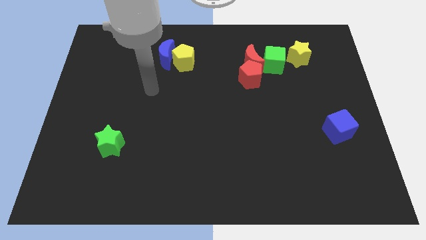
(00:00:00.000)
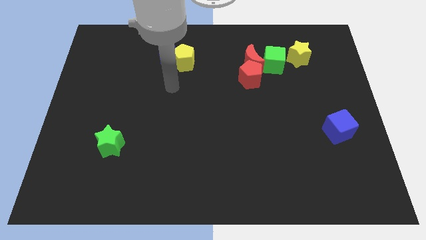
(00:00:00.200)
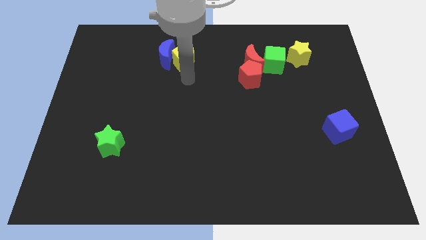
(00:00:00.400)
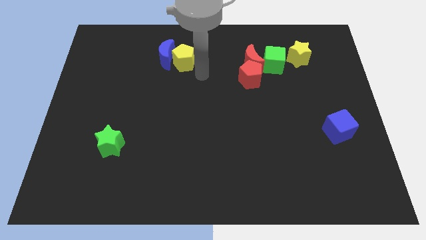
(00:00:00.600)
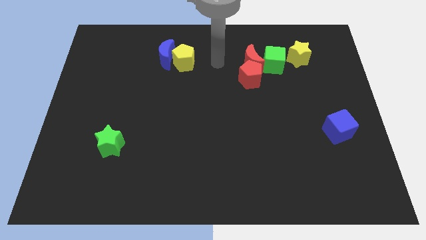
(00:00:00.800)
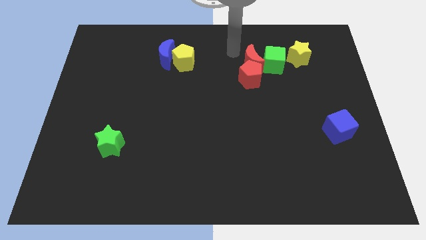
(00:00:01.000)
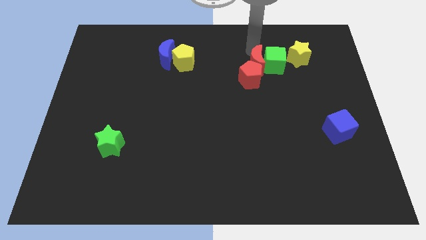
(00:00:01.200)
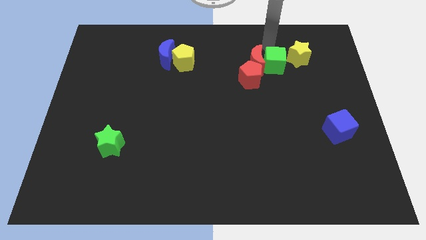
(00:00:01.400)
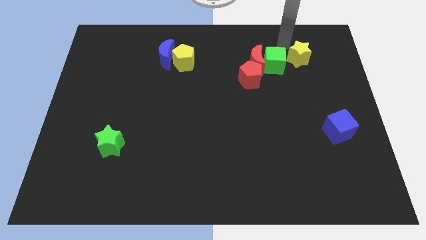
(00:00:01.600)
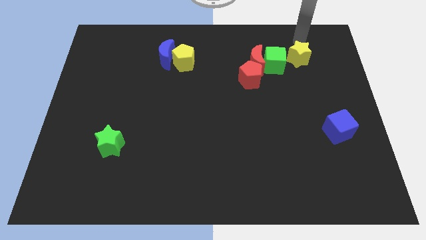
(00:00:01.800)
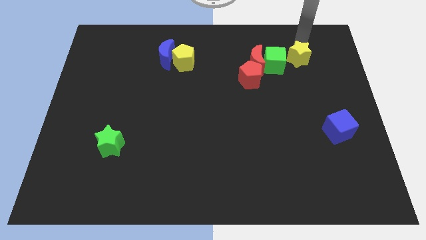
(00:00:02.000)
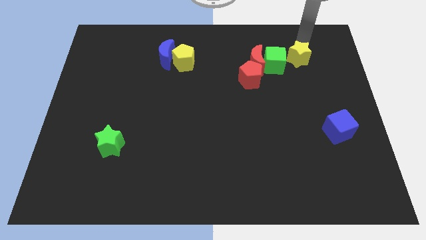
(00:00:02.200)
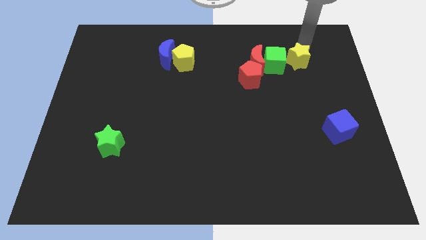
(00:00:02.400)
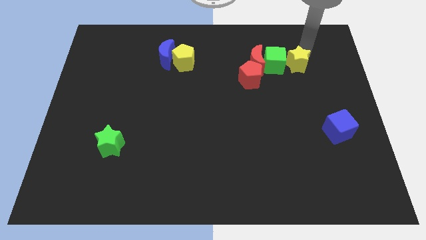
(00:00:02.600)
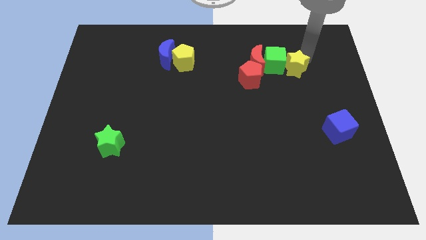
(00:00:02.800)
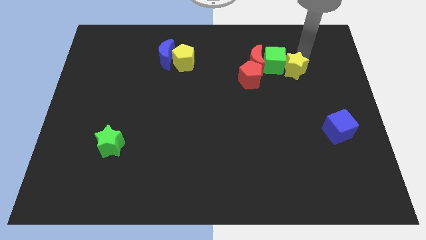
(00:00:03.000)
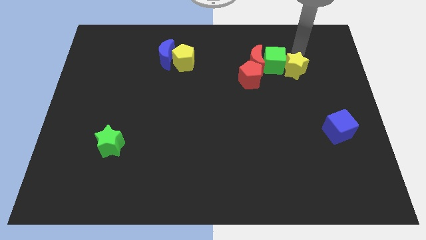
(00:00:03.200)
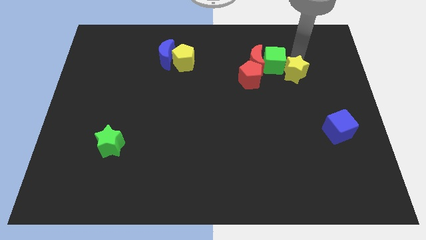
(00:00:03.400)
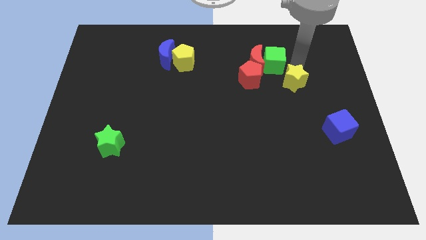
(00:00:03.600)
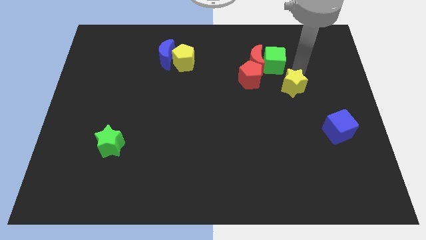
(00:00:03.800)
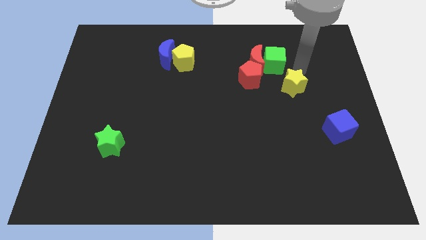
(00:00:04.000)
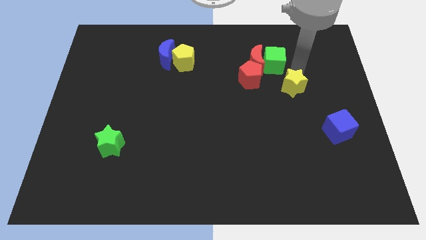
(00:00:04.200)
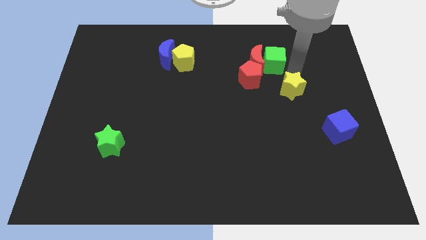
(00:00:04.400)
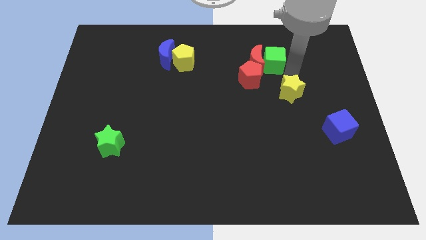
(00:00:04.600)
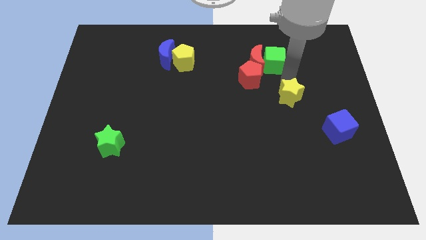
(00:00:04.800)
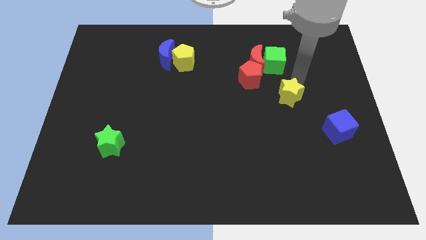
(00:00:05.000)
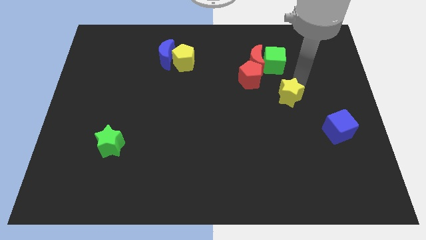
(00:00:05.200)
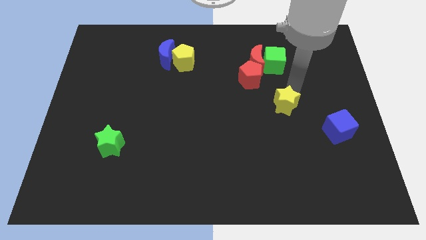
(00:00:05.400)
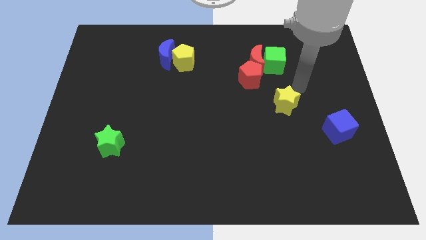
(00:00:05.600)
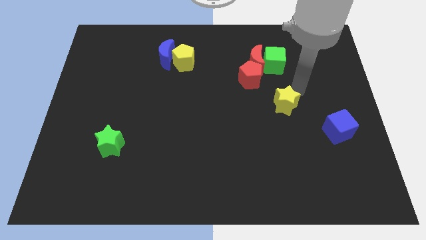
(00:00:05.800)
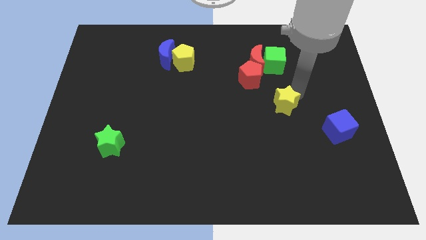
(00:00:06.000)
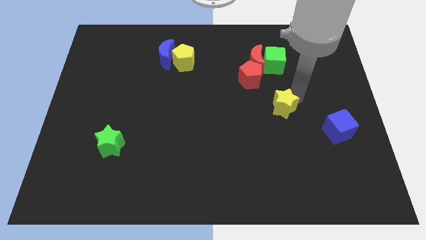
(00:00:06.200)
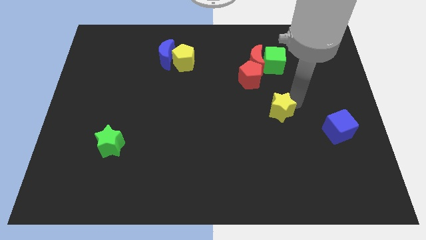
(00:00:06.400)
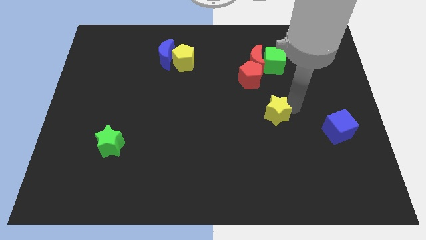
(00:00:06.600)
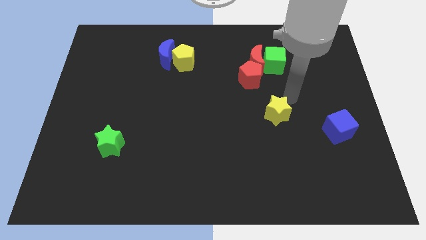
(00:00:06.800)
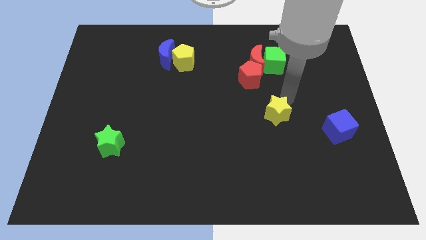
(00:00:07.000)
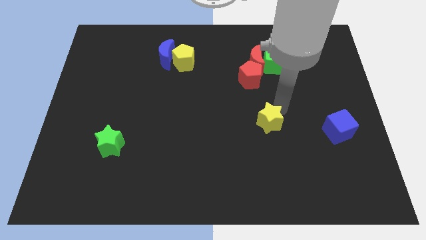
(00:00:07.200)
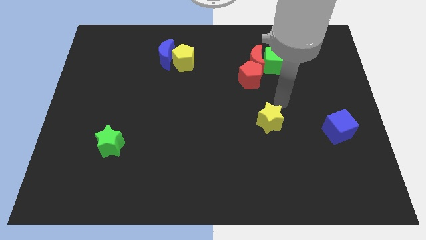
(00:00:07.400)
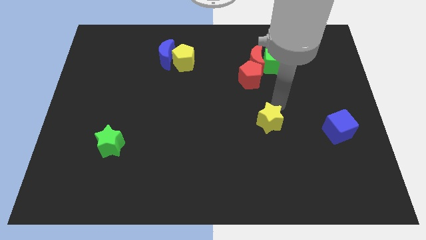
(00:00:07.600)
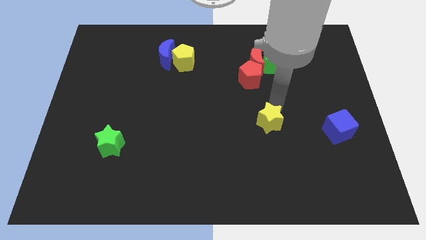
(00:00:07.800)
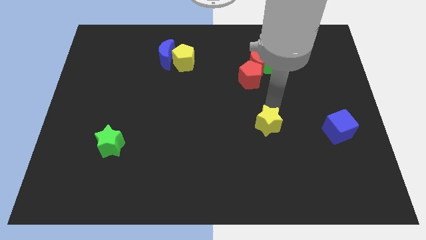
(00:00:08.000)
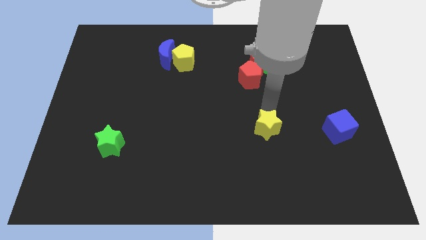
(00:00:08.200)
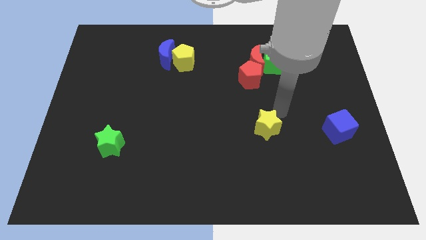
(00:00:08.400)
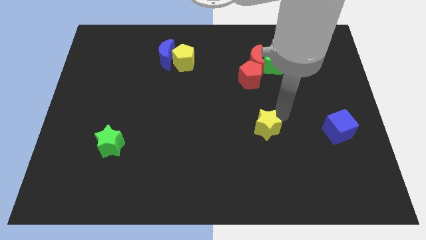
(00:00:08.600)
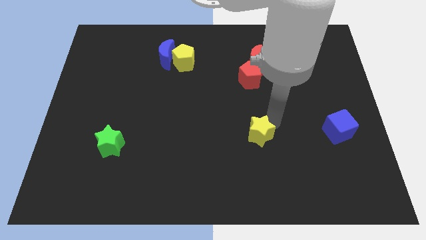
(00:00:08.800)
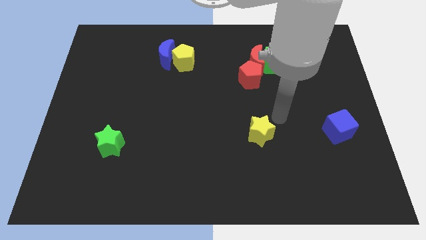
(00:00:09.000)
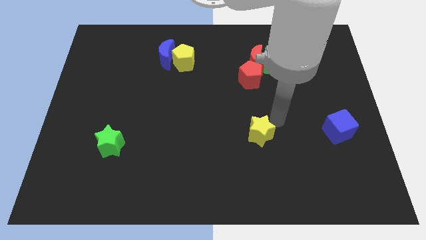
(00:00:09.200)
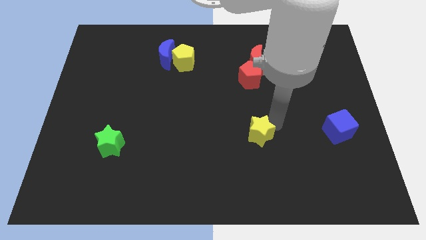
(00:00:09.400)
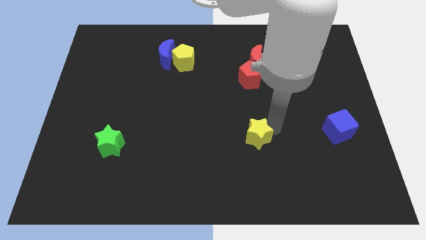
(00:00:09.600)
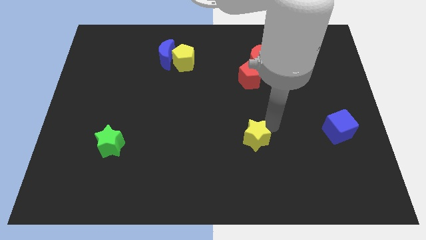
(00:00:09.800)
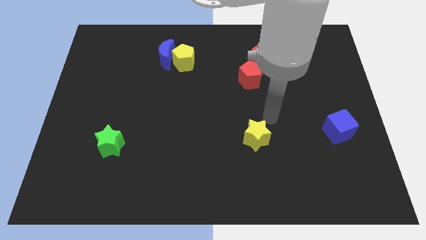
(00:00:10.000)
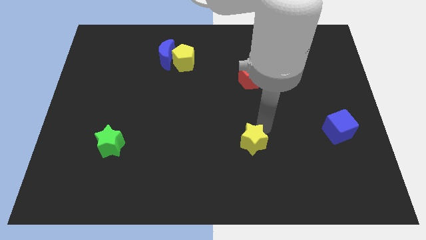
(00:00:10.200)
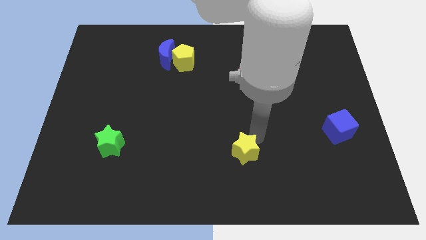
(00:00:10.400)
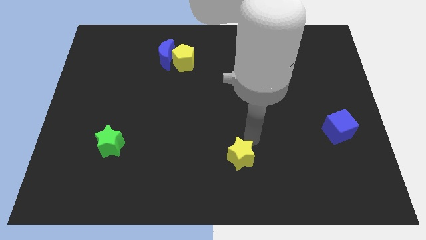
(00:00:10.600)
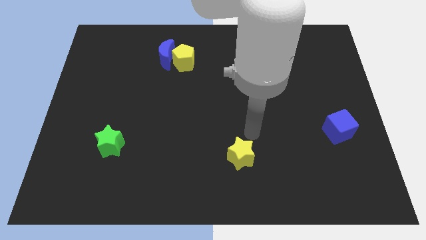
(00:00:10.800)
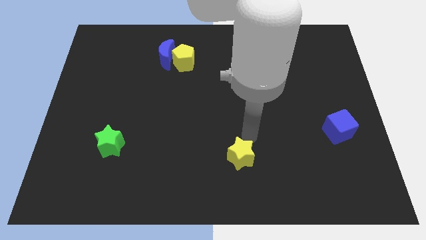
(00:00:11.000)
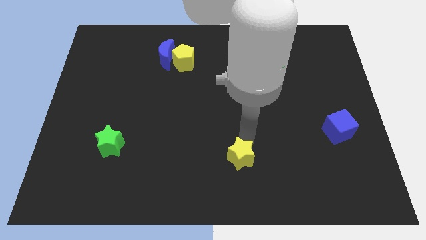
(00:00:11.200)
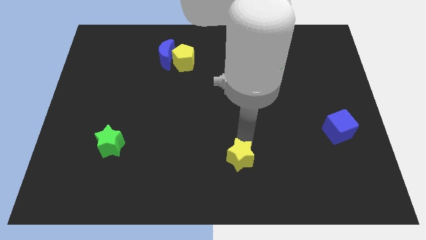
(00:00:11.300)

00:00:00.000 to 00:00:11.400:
move the yellow star to the bottom side

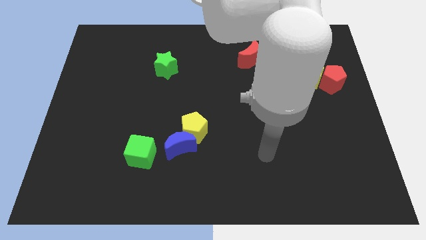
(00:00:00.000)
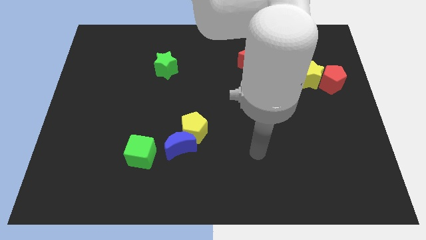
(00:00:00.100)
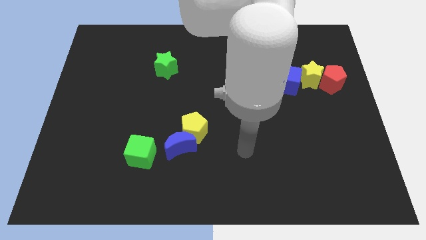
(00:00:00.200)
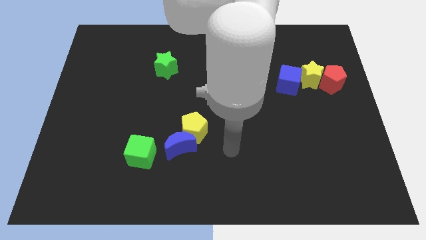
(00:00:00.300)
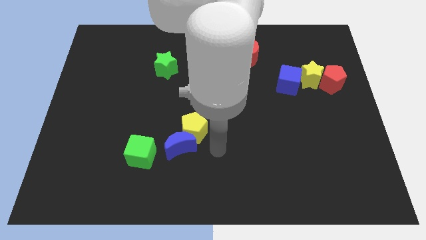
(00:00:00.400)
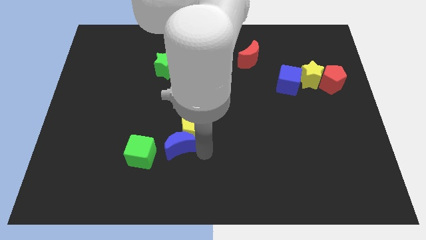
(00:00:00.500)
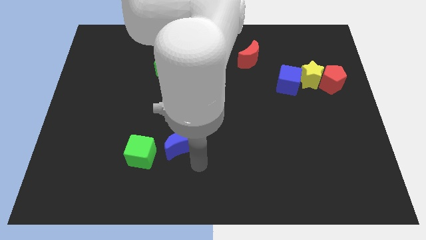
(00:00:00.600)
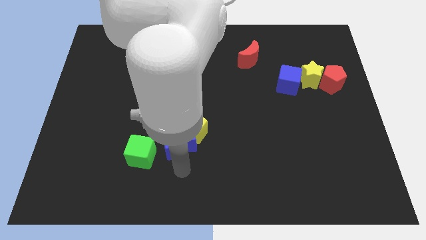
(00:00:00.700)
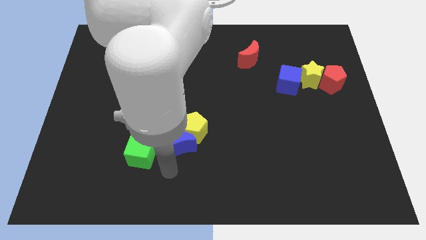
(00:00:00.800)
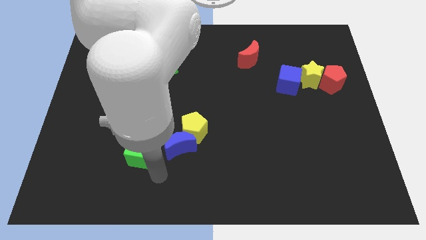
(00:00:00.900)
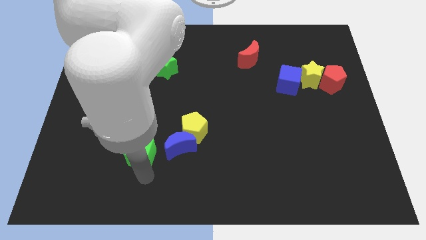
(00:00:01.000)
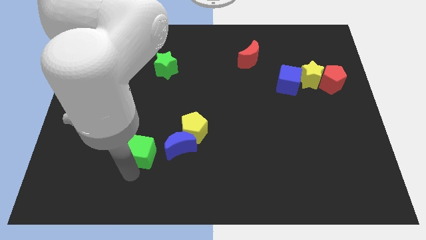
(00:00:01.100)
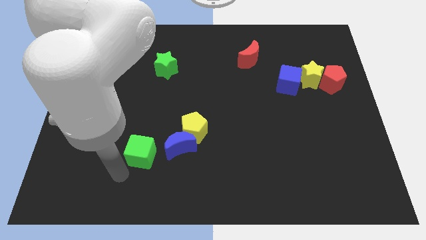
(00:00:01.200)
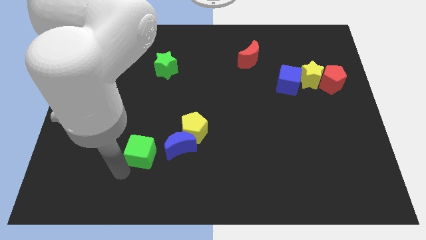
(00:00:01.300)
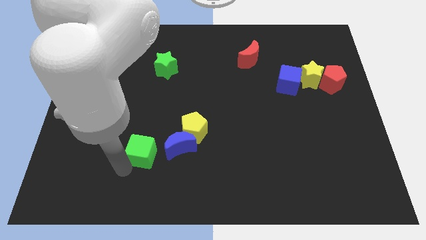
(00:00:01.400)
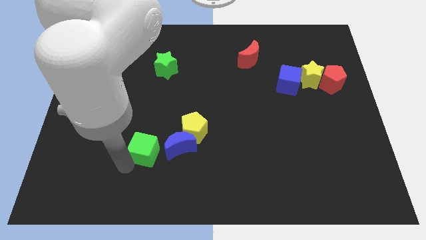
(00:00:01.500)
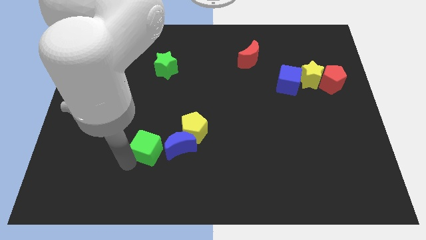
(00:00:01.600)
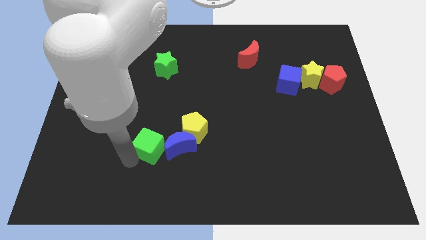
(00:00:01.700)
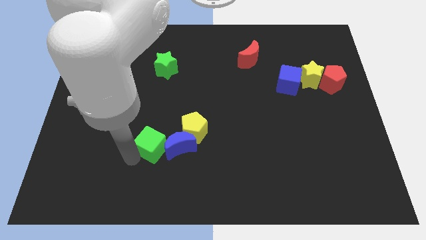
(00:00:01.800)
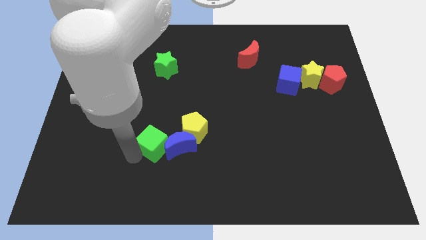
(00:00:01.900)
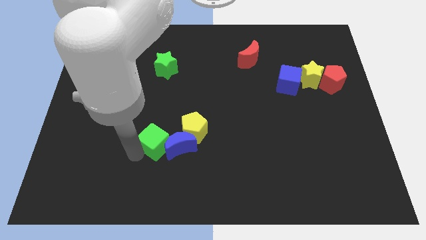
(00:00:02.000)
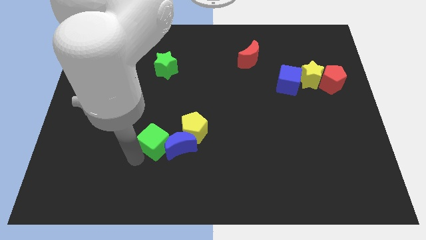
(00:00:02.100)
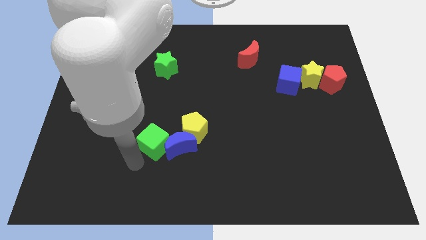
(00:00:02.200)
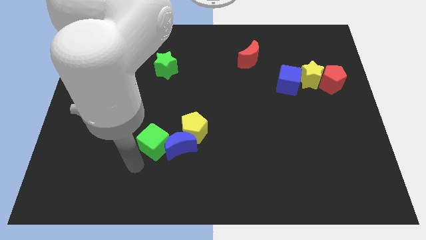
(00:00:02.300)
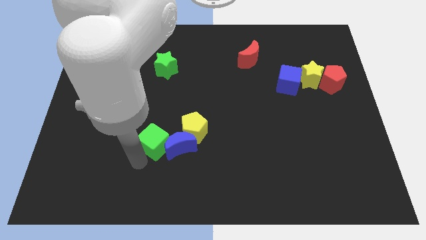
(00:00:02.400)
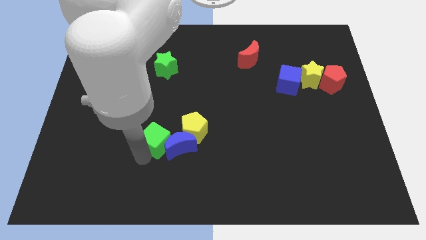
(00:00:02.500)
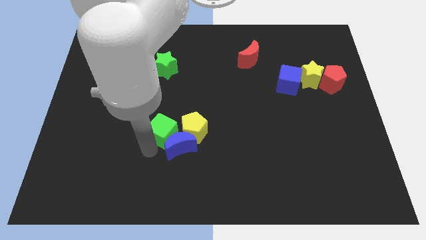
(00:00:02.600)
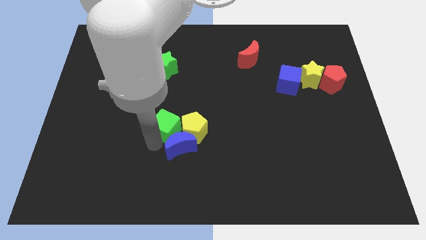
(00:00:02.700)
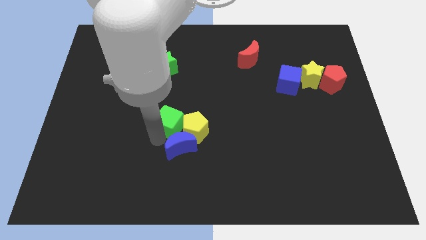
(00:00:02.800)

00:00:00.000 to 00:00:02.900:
push the green cube to the center
